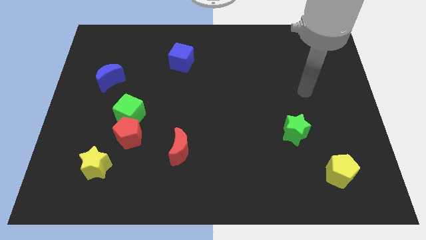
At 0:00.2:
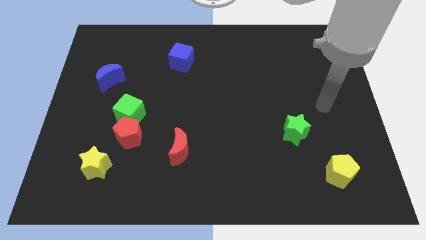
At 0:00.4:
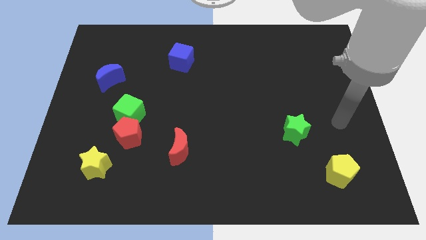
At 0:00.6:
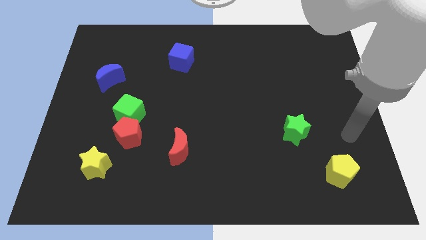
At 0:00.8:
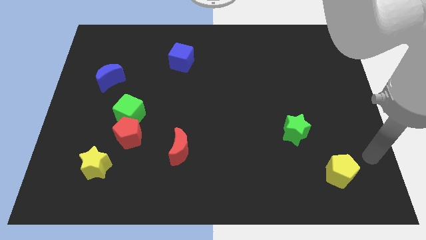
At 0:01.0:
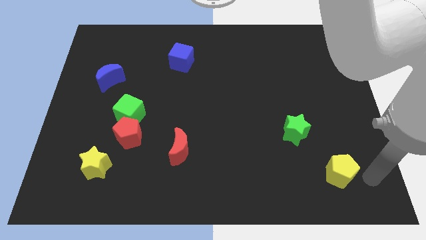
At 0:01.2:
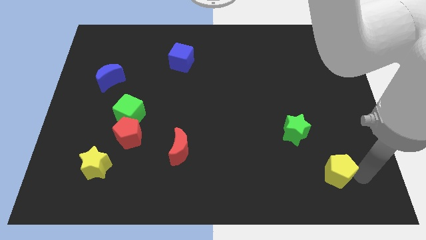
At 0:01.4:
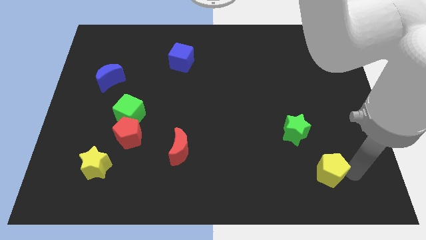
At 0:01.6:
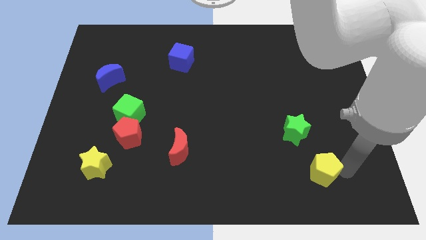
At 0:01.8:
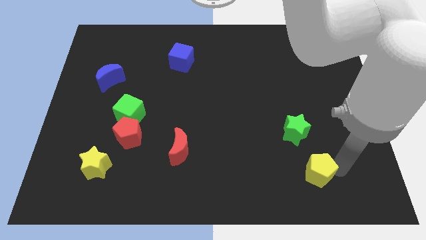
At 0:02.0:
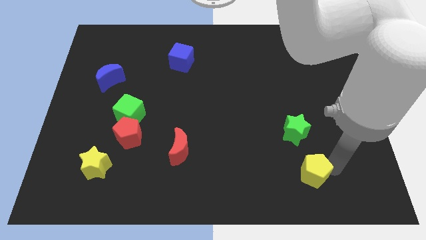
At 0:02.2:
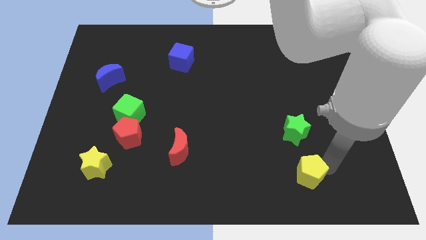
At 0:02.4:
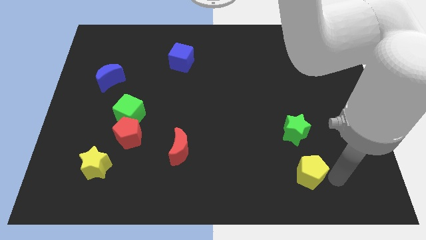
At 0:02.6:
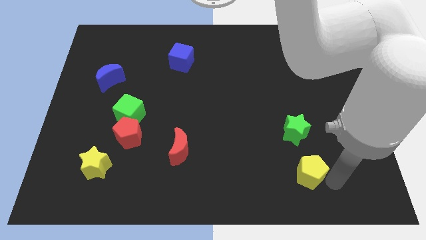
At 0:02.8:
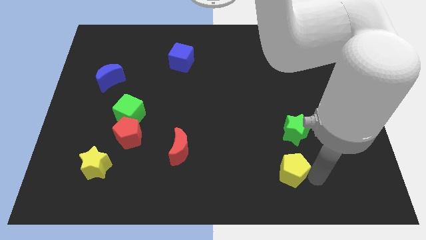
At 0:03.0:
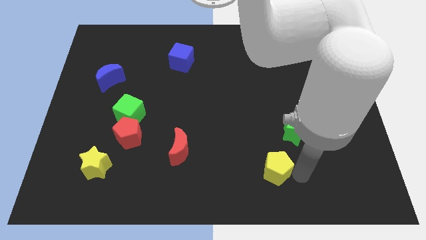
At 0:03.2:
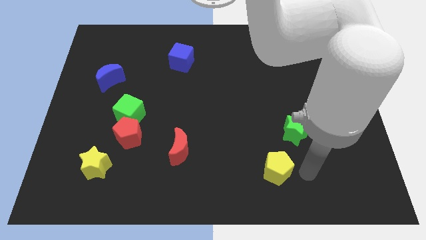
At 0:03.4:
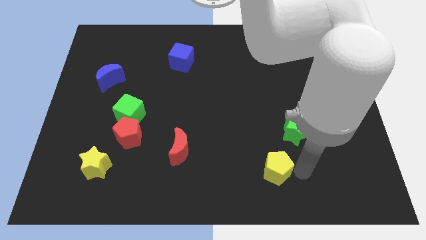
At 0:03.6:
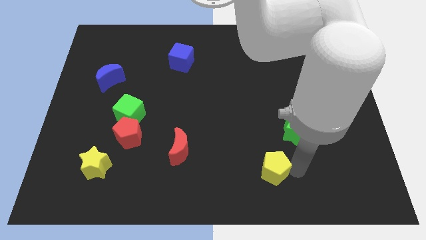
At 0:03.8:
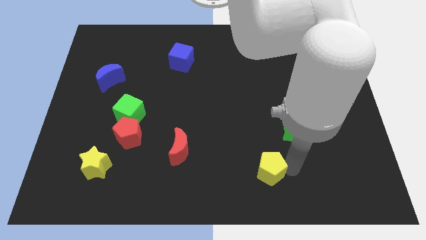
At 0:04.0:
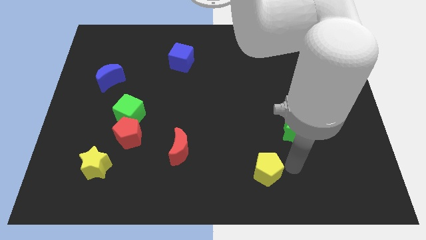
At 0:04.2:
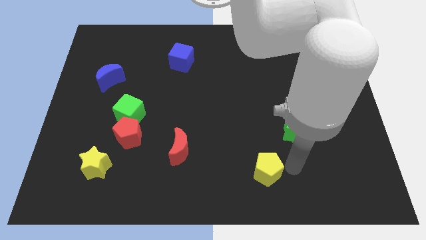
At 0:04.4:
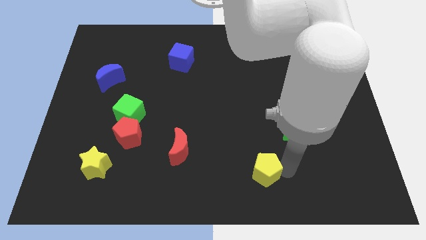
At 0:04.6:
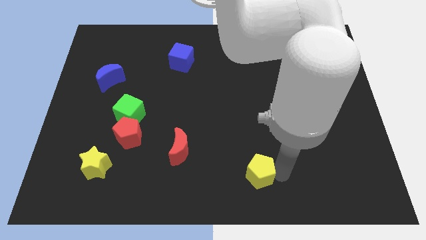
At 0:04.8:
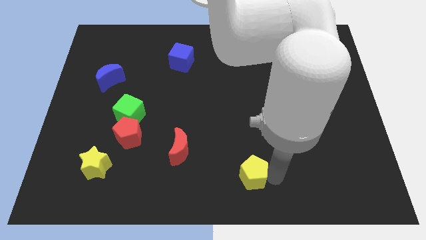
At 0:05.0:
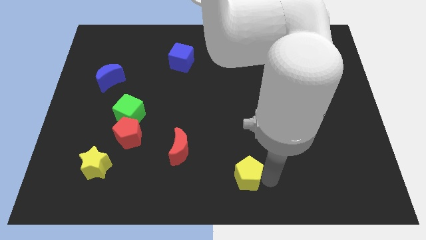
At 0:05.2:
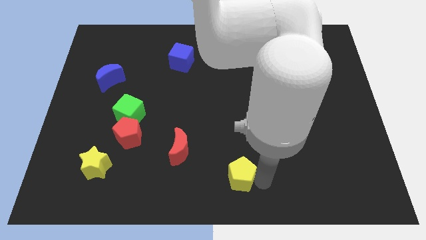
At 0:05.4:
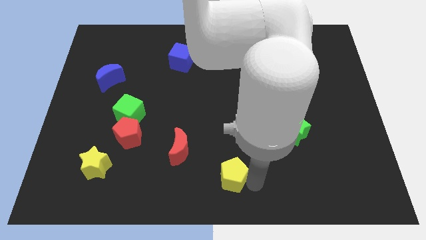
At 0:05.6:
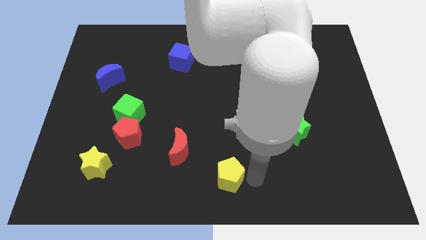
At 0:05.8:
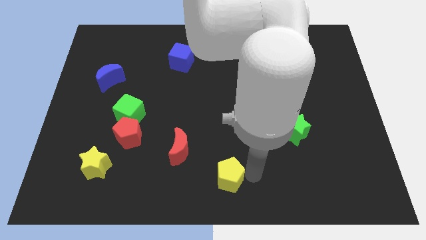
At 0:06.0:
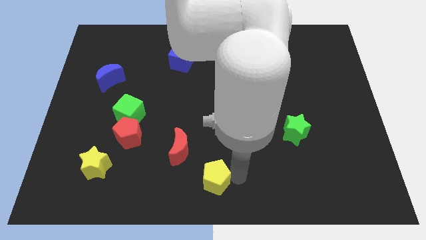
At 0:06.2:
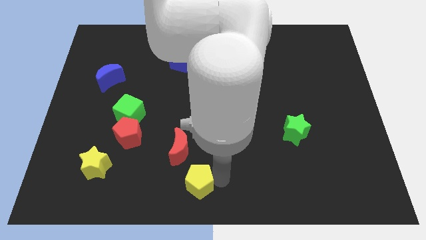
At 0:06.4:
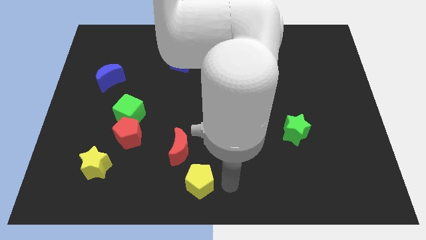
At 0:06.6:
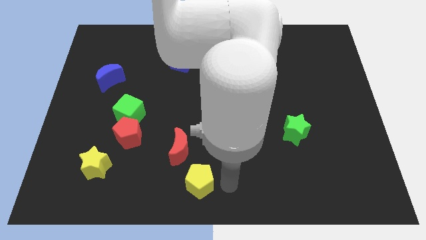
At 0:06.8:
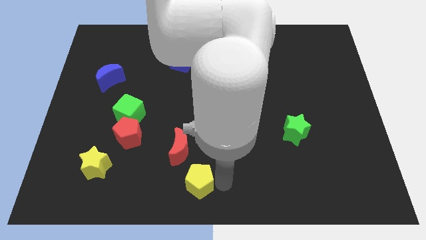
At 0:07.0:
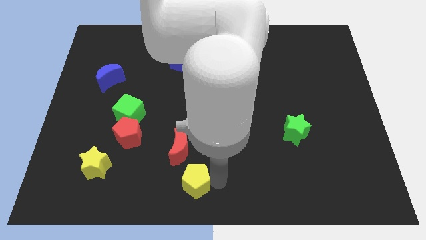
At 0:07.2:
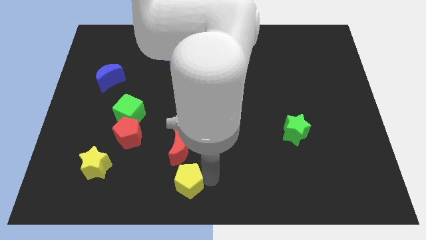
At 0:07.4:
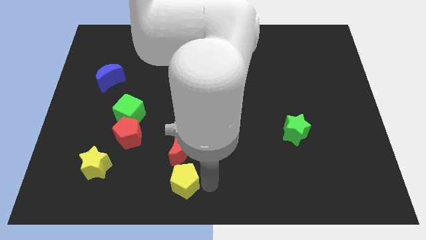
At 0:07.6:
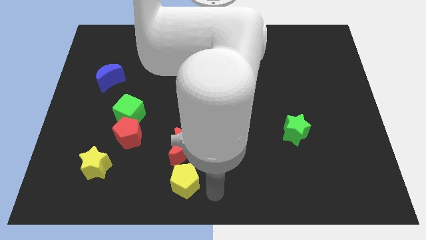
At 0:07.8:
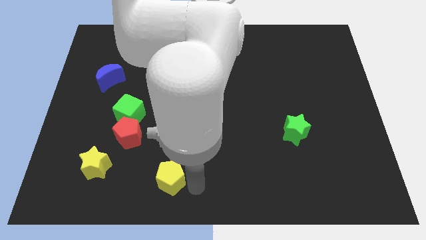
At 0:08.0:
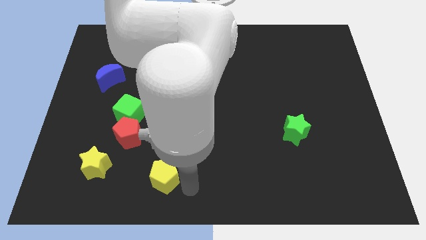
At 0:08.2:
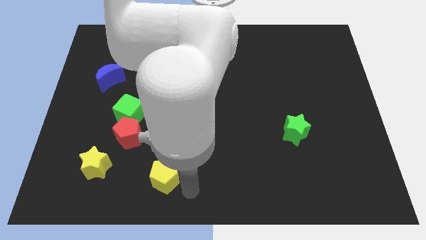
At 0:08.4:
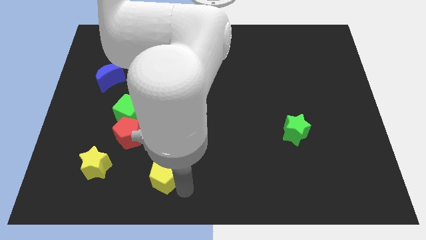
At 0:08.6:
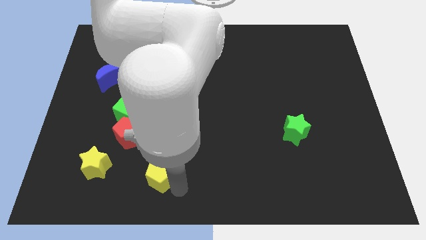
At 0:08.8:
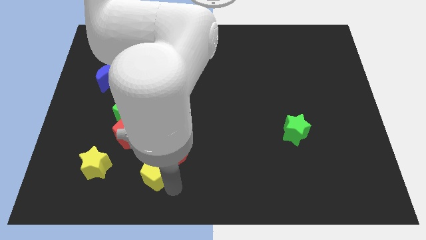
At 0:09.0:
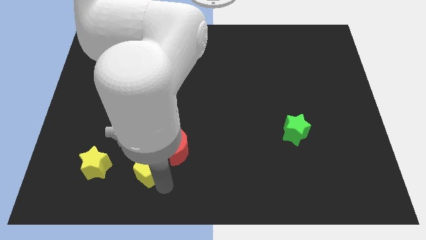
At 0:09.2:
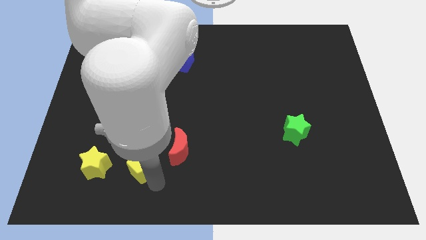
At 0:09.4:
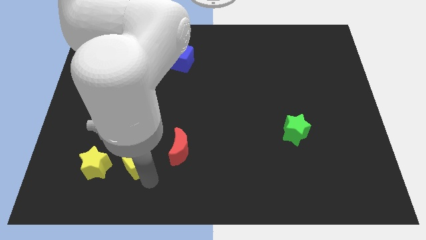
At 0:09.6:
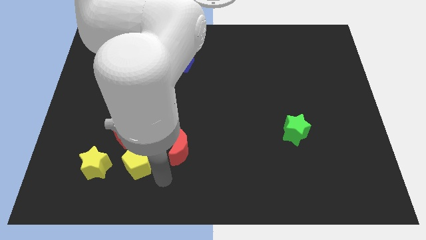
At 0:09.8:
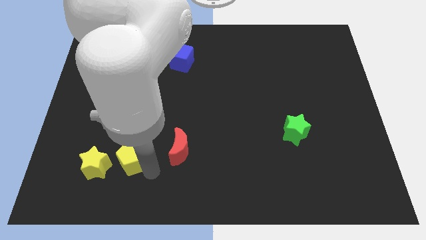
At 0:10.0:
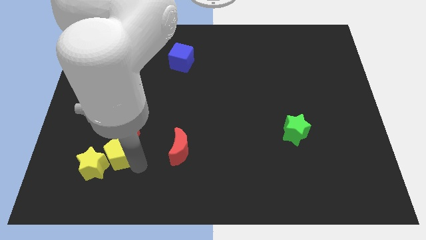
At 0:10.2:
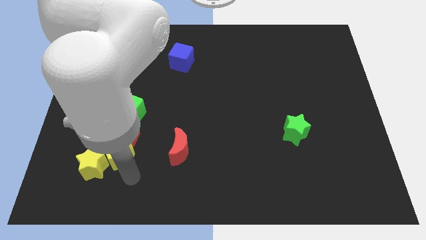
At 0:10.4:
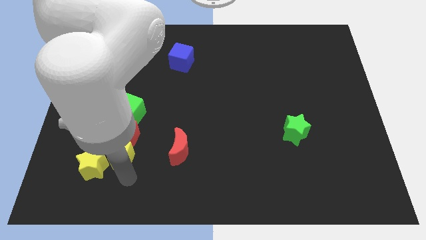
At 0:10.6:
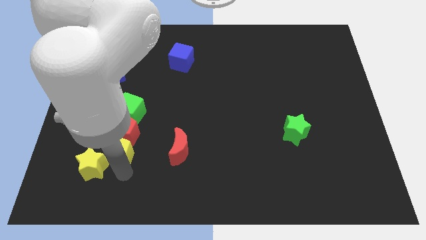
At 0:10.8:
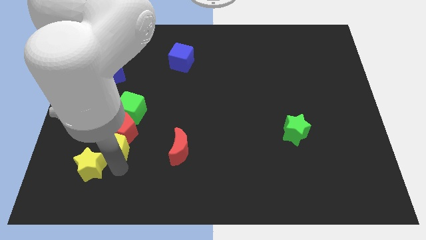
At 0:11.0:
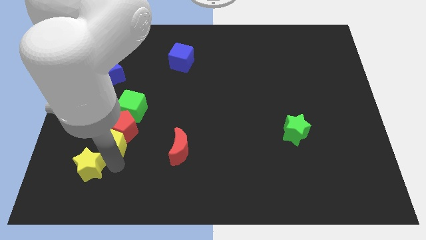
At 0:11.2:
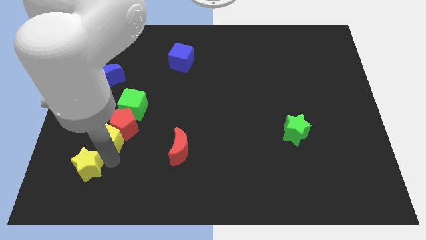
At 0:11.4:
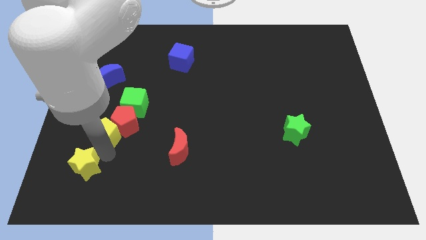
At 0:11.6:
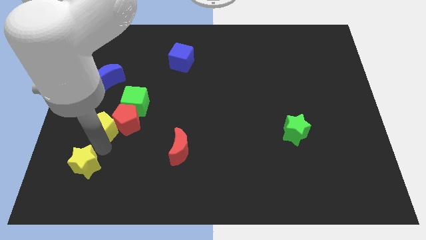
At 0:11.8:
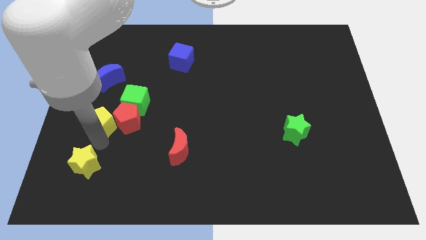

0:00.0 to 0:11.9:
slide the yellow pentagon to the top left side of the red pentagon

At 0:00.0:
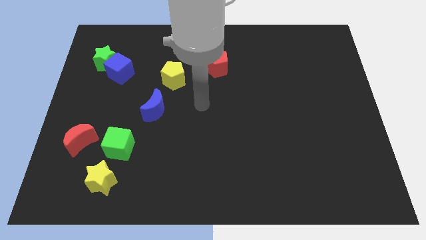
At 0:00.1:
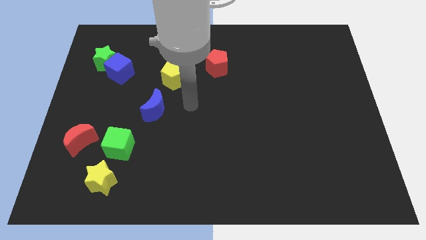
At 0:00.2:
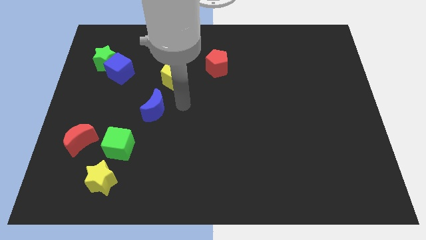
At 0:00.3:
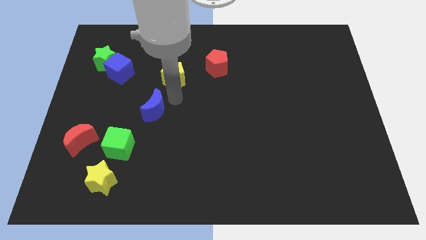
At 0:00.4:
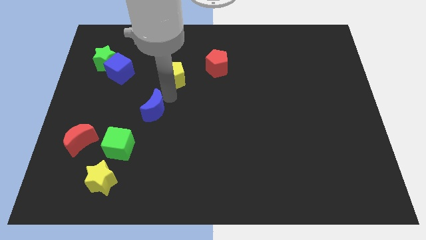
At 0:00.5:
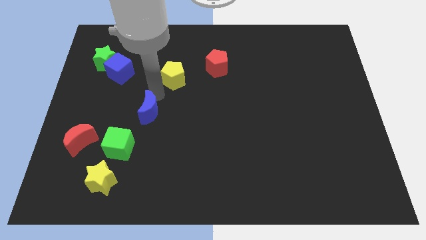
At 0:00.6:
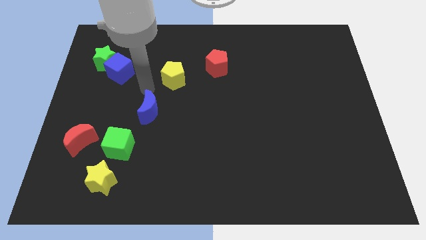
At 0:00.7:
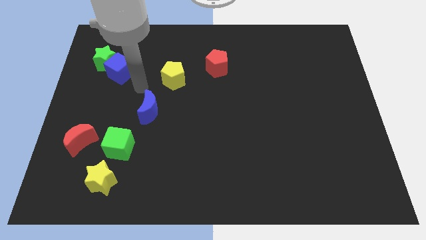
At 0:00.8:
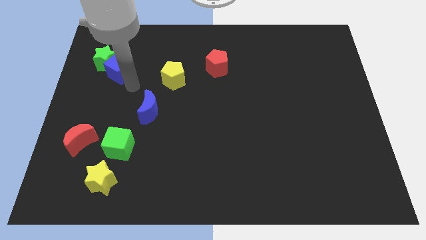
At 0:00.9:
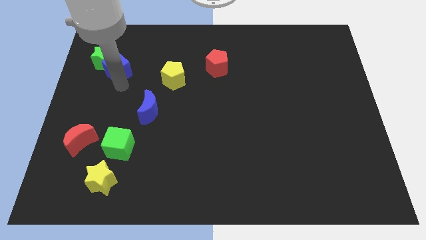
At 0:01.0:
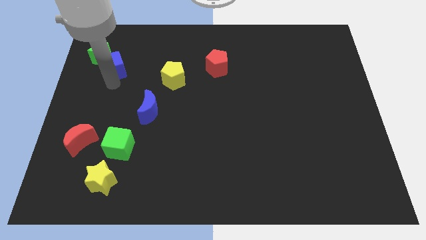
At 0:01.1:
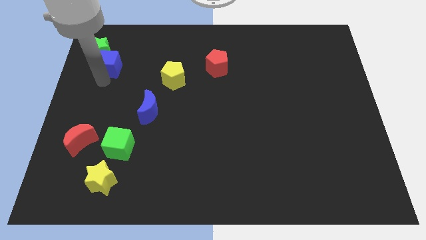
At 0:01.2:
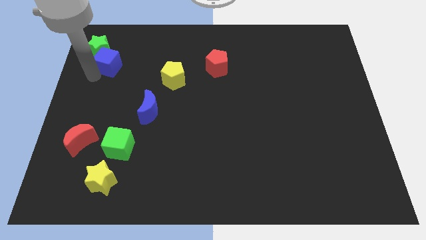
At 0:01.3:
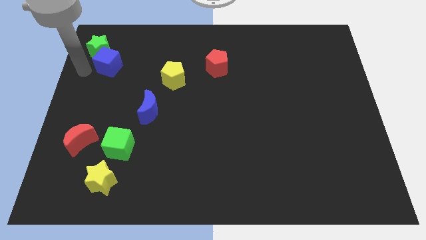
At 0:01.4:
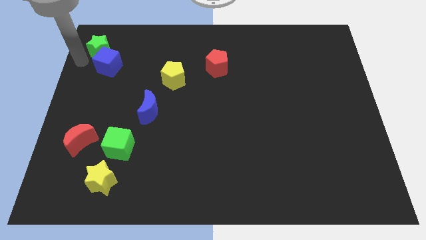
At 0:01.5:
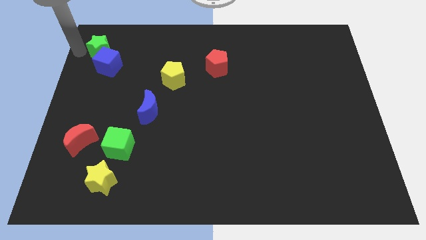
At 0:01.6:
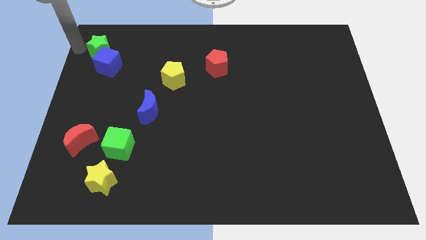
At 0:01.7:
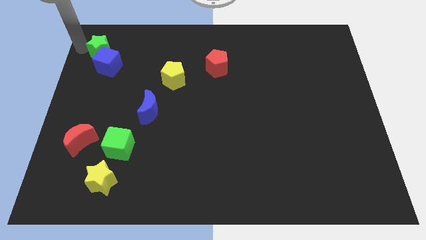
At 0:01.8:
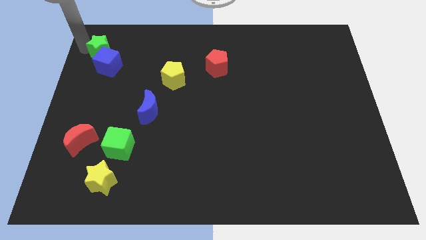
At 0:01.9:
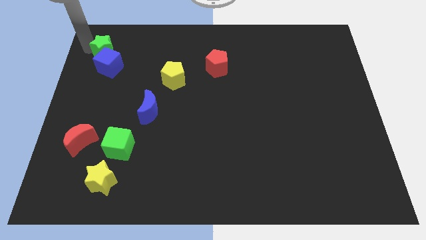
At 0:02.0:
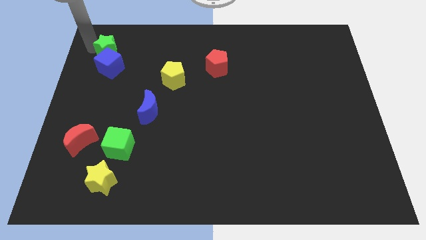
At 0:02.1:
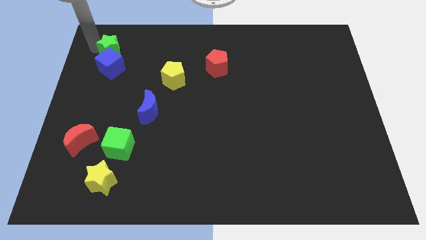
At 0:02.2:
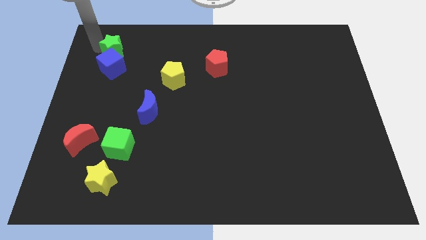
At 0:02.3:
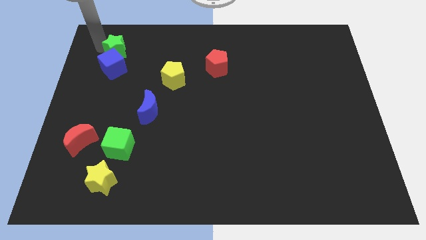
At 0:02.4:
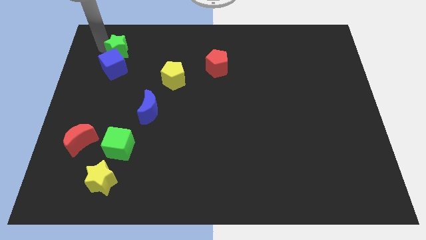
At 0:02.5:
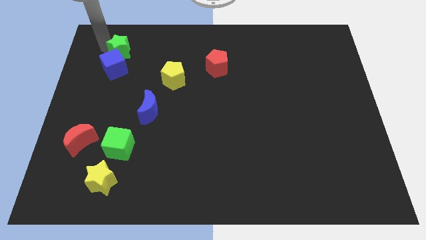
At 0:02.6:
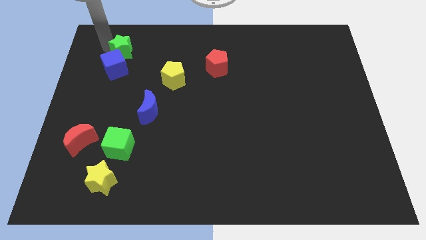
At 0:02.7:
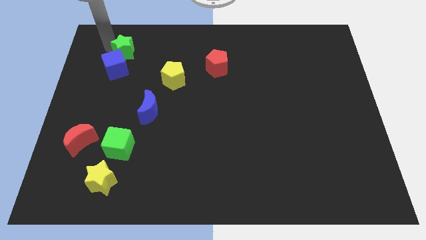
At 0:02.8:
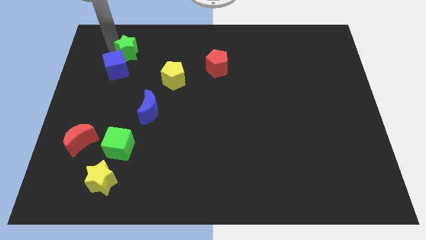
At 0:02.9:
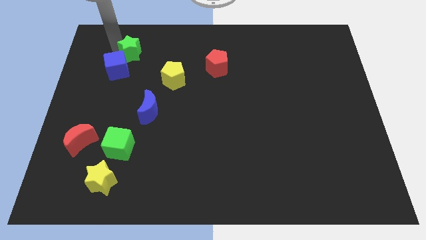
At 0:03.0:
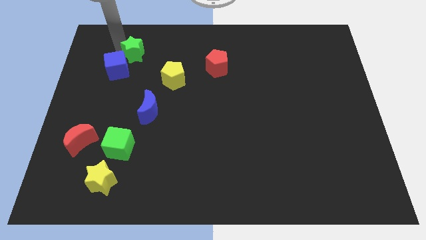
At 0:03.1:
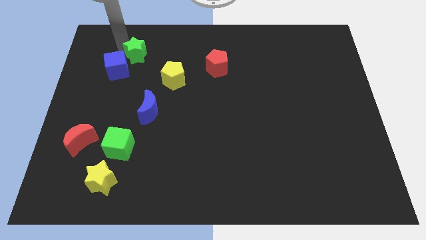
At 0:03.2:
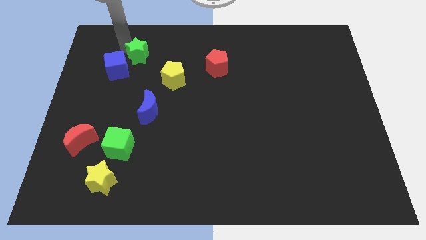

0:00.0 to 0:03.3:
push the green star diagonally up and to the left of the yellow pentagon
